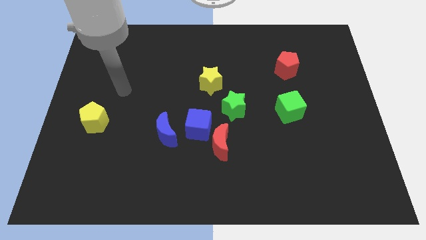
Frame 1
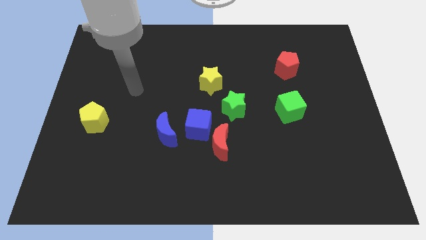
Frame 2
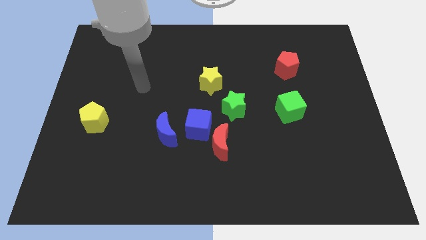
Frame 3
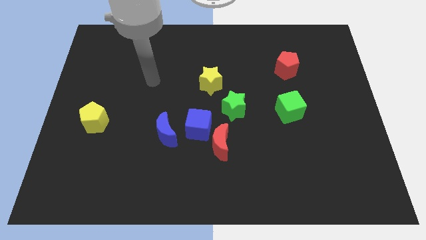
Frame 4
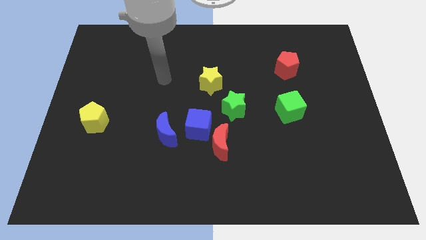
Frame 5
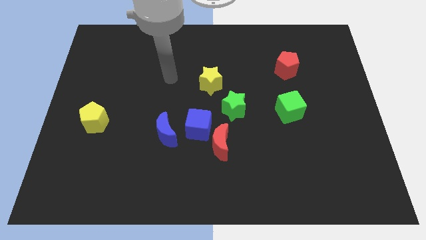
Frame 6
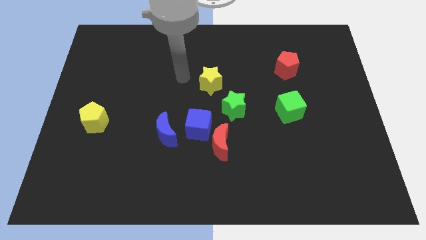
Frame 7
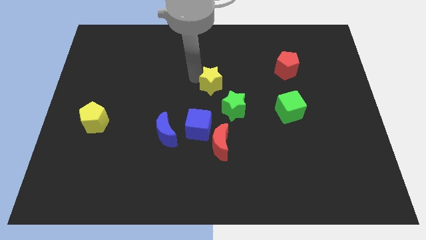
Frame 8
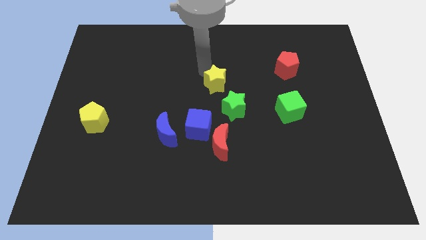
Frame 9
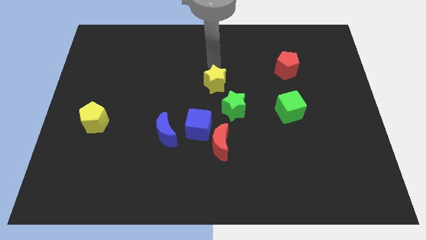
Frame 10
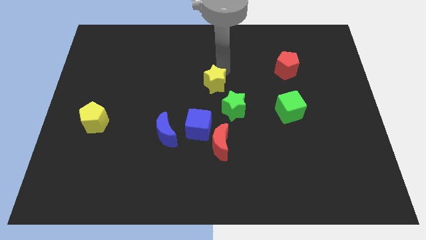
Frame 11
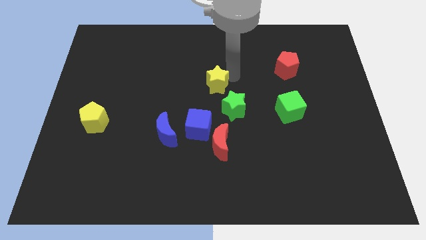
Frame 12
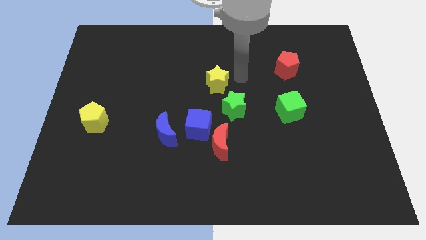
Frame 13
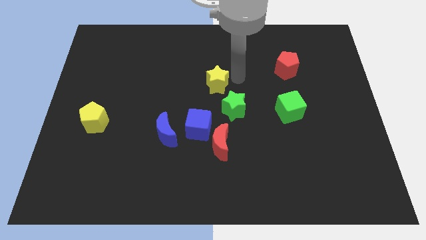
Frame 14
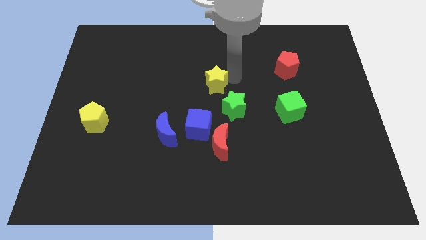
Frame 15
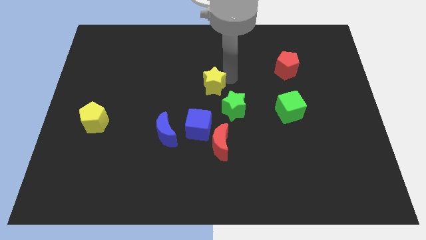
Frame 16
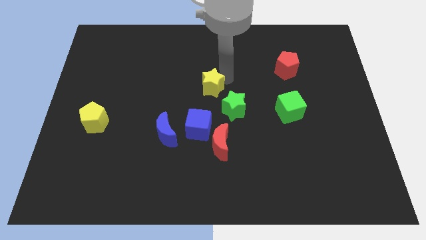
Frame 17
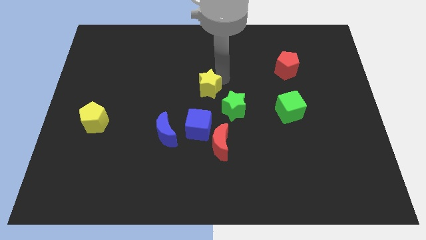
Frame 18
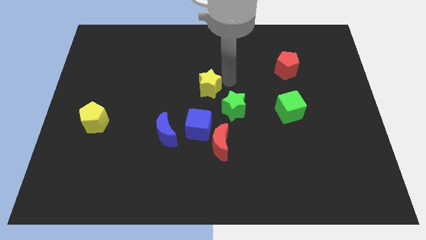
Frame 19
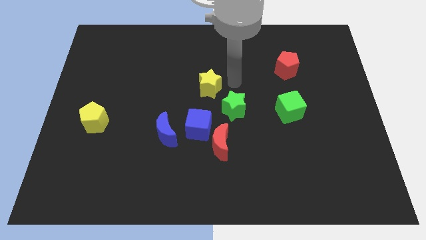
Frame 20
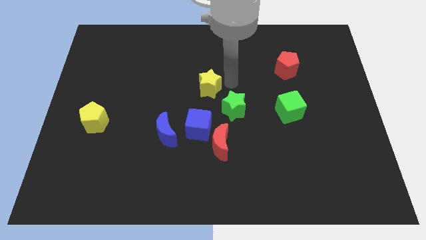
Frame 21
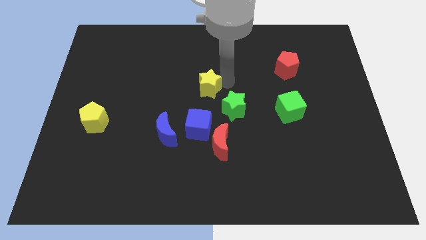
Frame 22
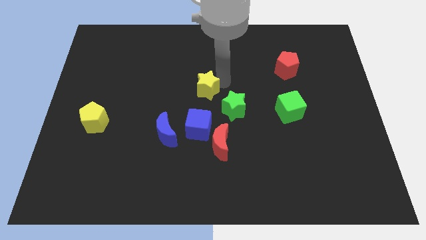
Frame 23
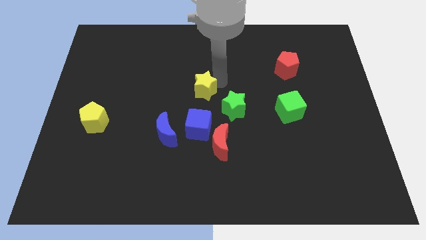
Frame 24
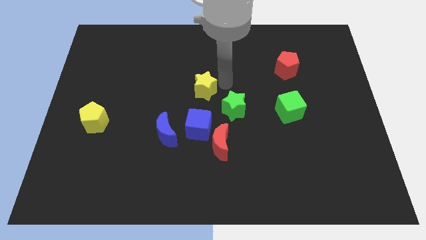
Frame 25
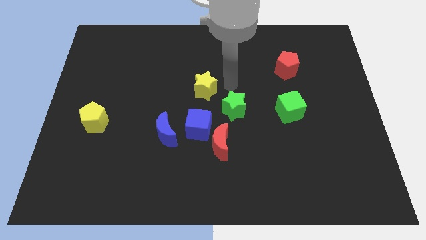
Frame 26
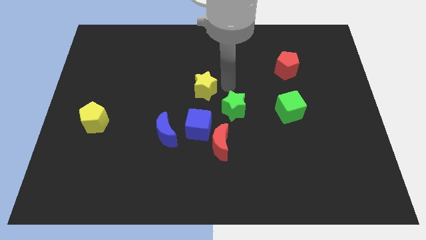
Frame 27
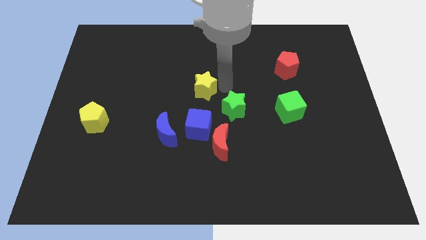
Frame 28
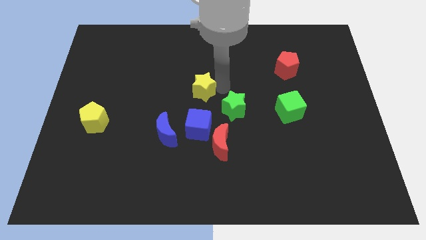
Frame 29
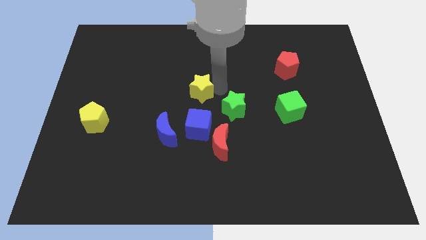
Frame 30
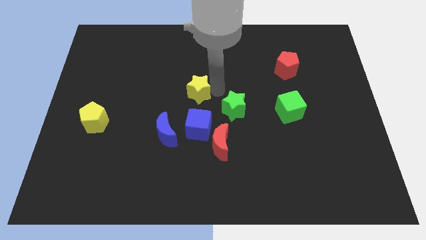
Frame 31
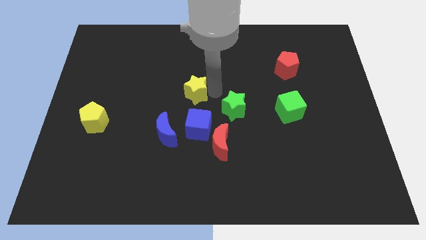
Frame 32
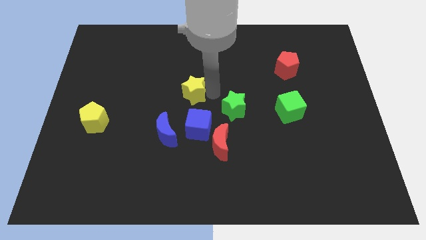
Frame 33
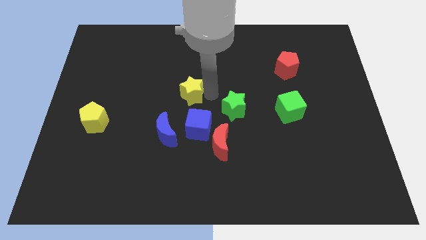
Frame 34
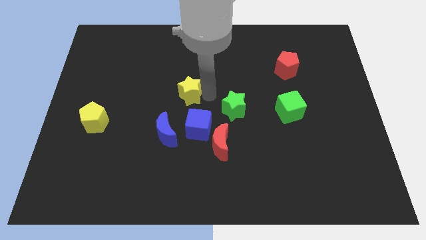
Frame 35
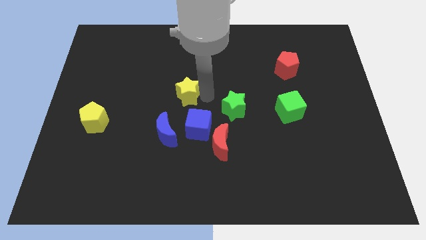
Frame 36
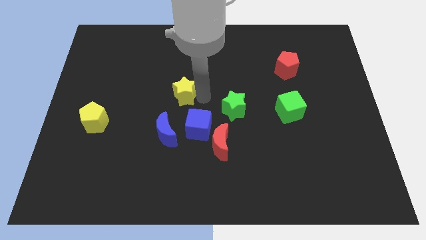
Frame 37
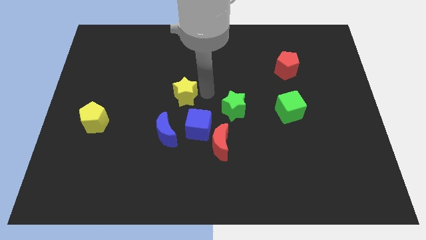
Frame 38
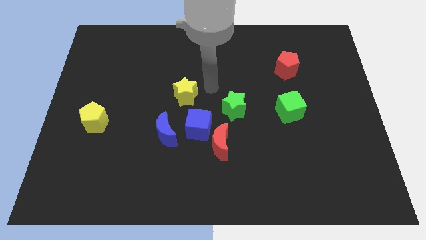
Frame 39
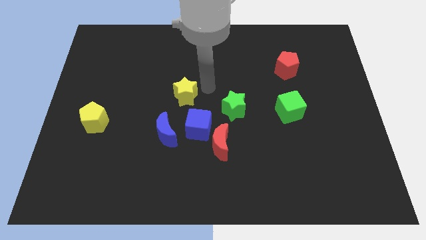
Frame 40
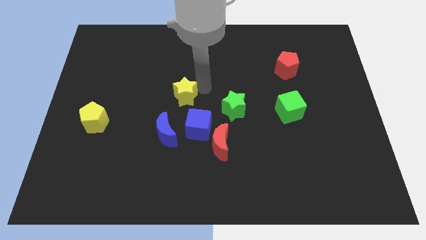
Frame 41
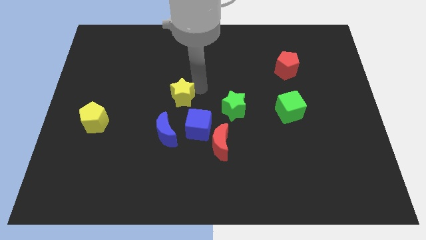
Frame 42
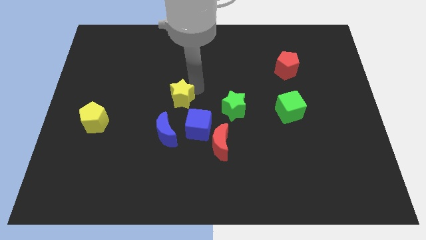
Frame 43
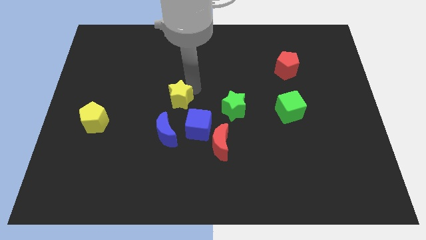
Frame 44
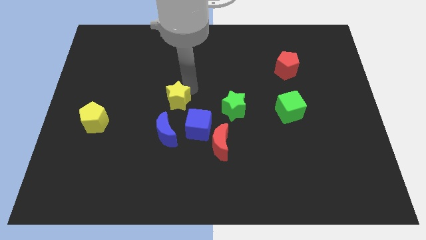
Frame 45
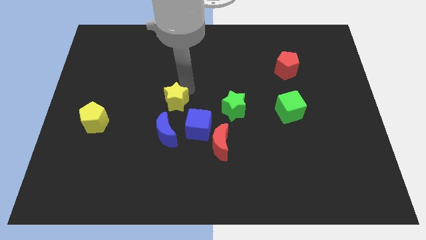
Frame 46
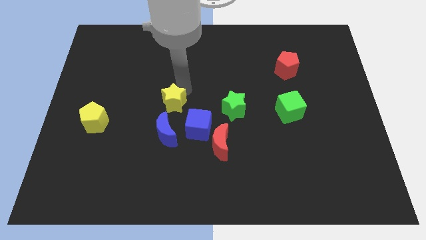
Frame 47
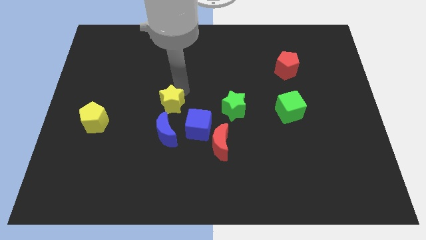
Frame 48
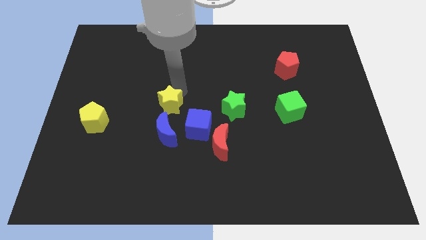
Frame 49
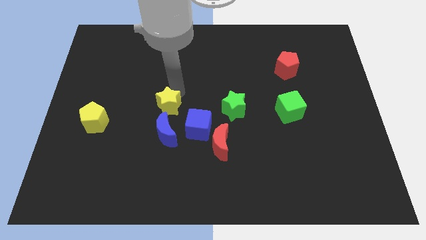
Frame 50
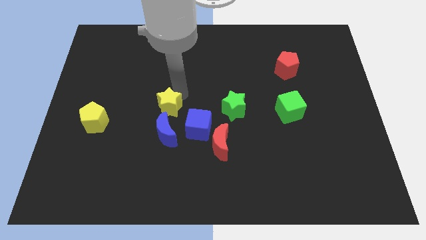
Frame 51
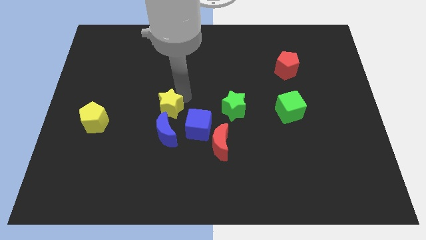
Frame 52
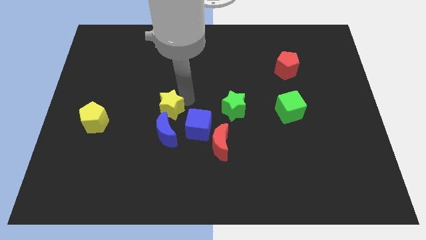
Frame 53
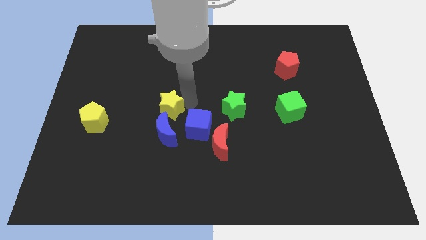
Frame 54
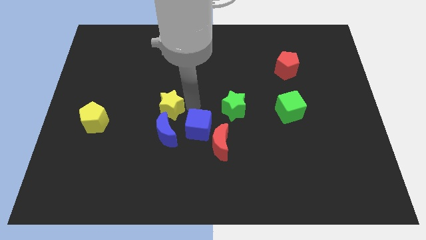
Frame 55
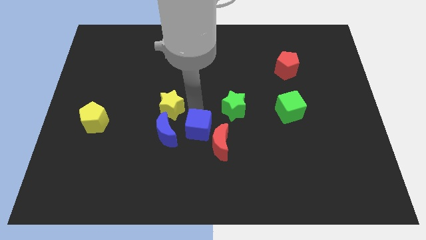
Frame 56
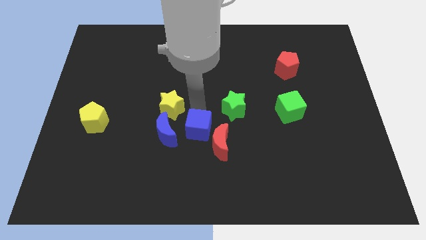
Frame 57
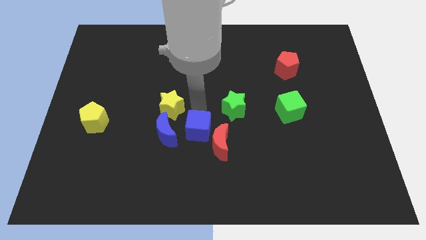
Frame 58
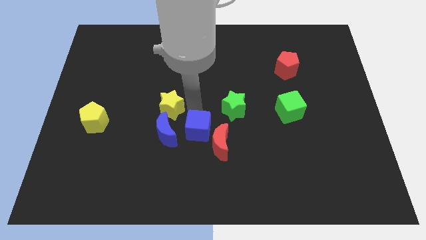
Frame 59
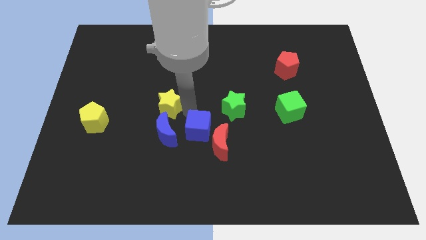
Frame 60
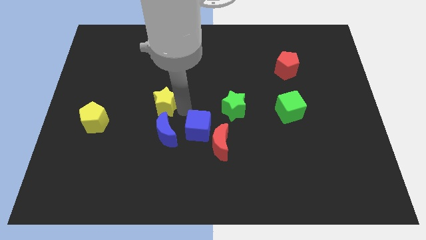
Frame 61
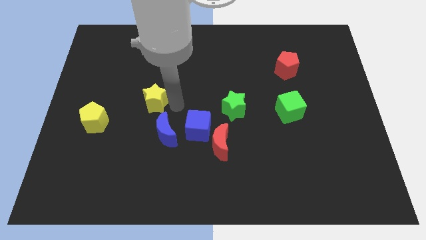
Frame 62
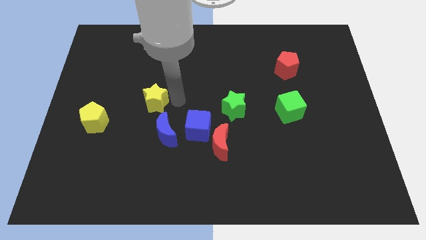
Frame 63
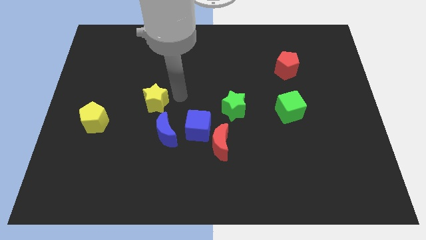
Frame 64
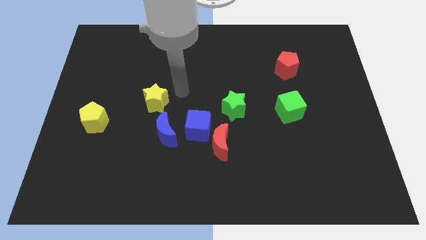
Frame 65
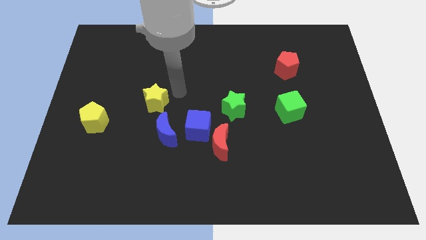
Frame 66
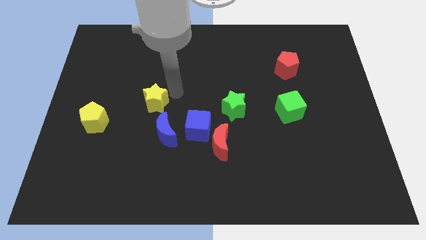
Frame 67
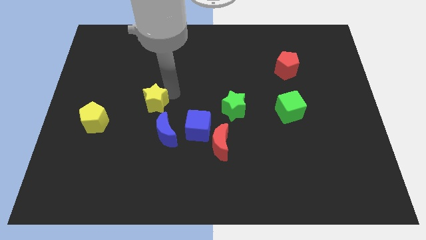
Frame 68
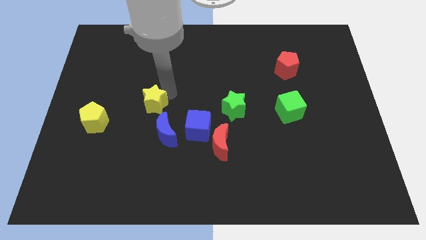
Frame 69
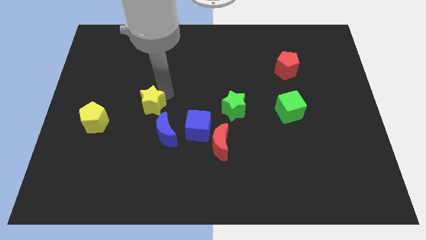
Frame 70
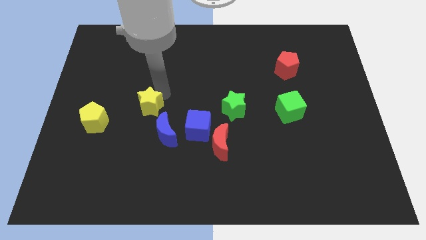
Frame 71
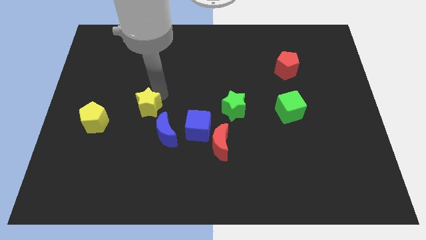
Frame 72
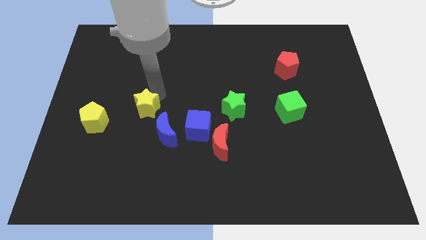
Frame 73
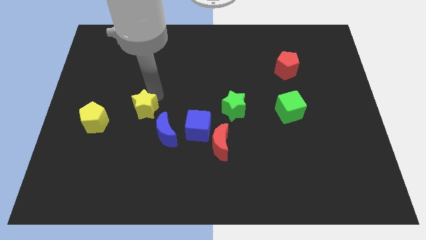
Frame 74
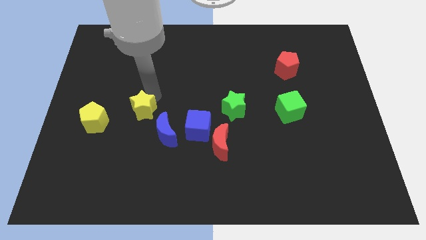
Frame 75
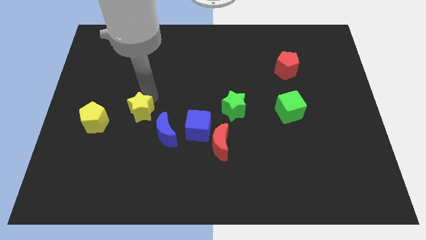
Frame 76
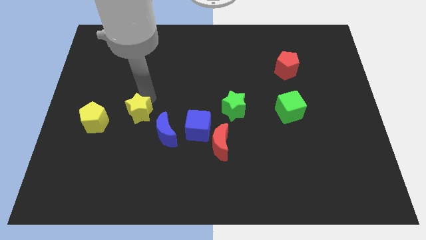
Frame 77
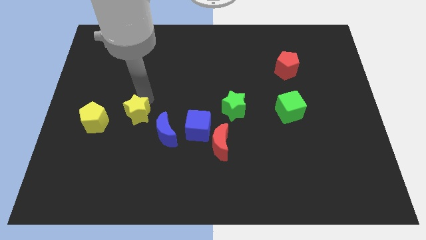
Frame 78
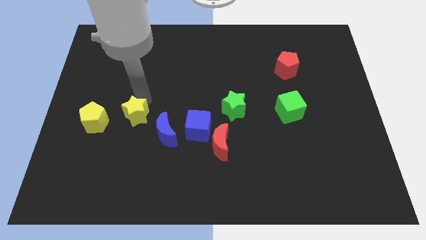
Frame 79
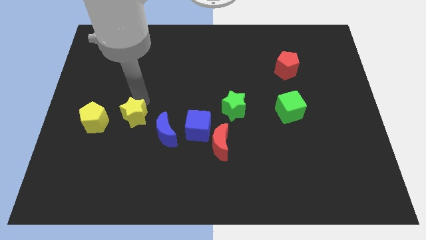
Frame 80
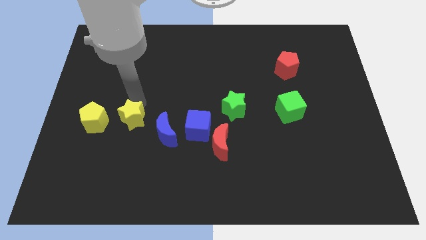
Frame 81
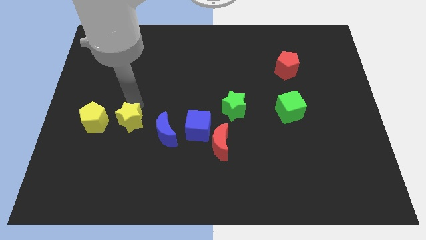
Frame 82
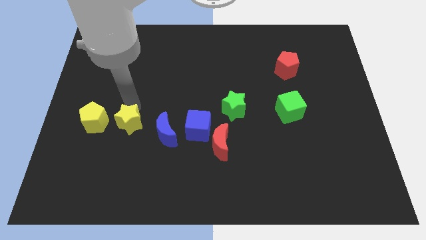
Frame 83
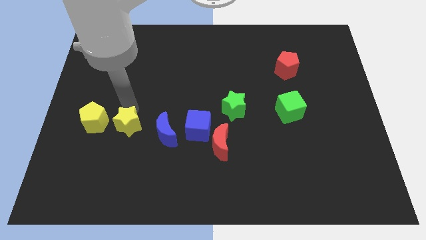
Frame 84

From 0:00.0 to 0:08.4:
move the yellow star to the bottom right side of the yellow pentagon
